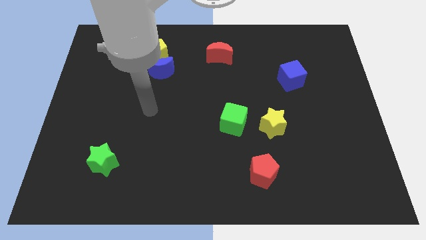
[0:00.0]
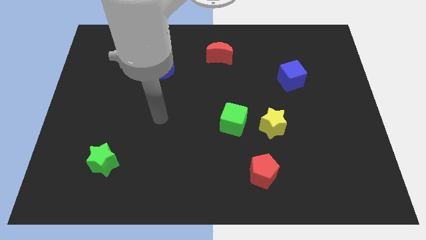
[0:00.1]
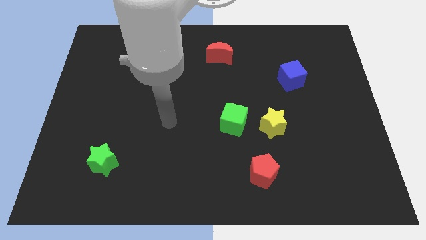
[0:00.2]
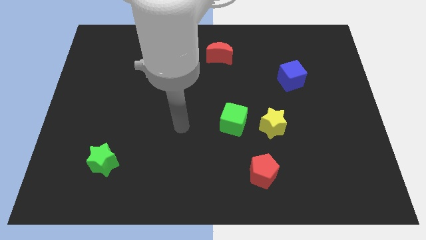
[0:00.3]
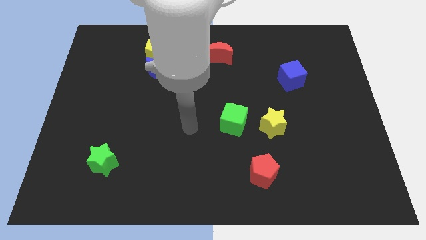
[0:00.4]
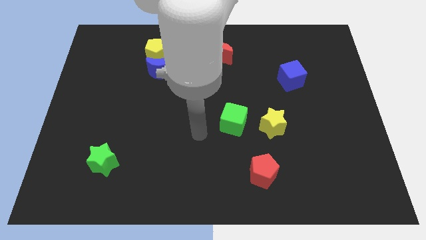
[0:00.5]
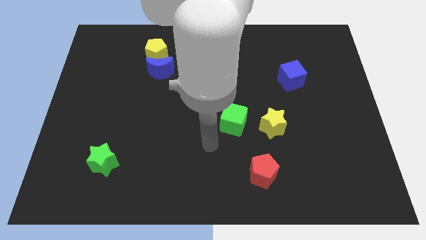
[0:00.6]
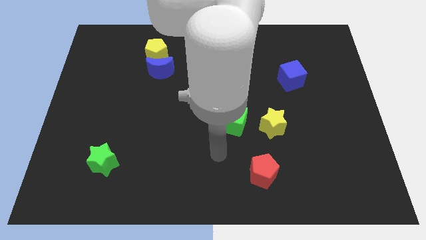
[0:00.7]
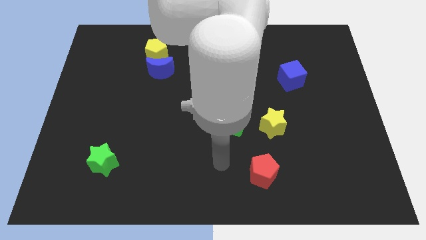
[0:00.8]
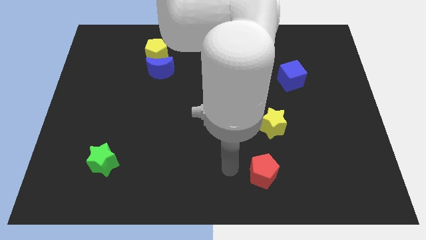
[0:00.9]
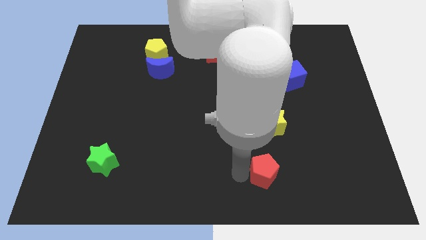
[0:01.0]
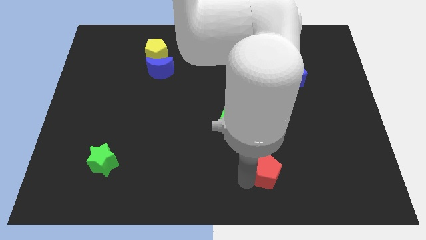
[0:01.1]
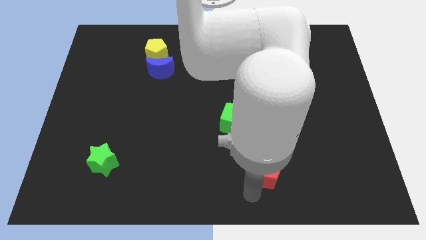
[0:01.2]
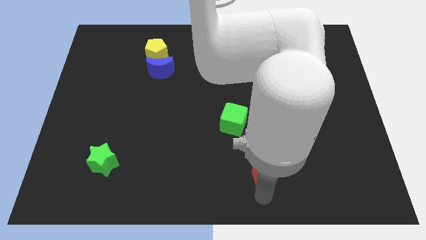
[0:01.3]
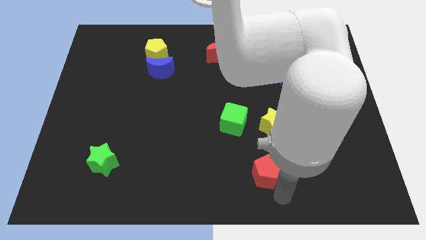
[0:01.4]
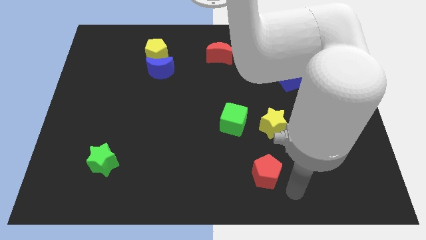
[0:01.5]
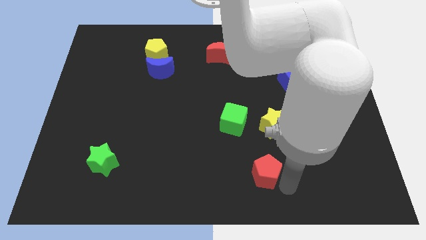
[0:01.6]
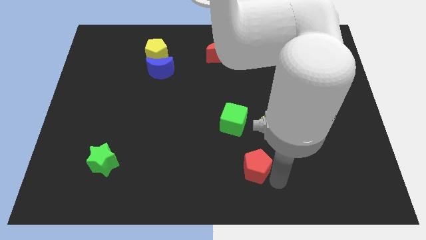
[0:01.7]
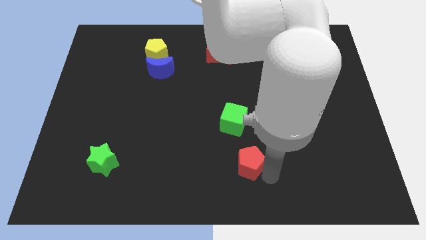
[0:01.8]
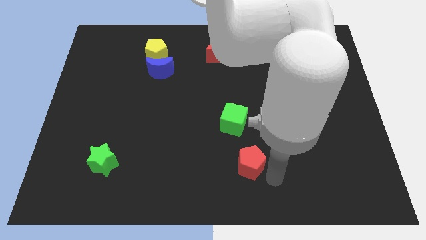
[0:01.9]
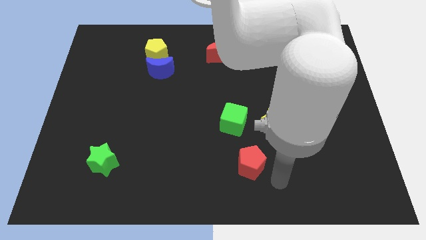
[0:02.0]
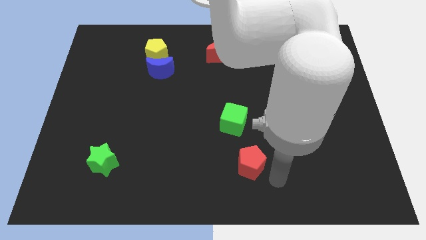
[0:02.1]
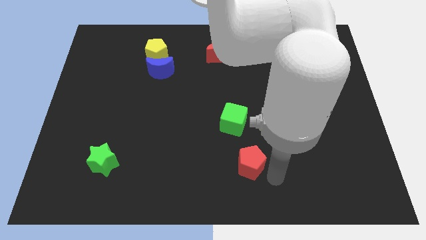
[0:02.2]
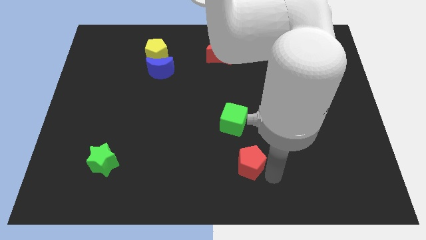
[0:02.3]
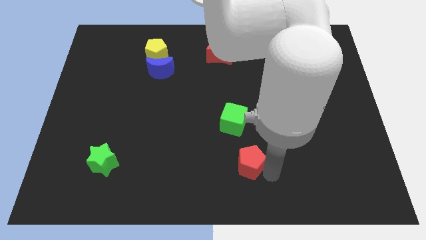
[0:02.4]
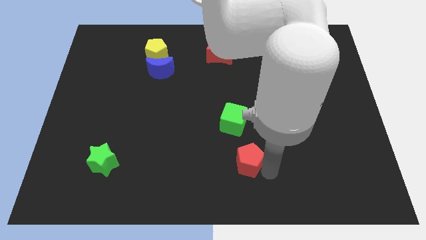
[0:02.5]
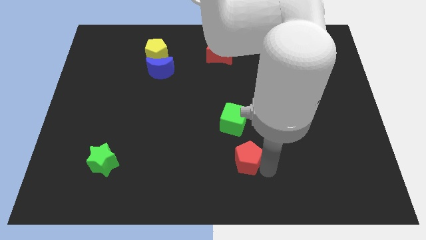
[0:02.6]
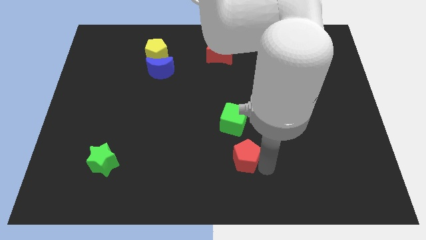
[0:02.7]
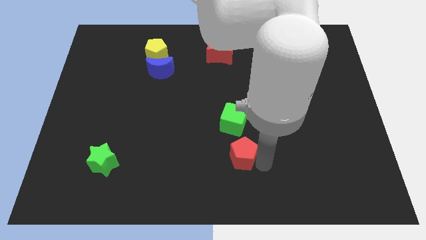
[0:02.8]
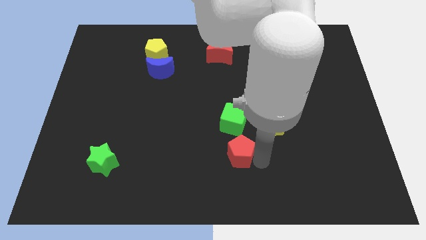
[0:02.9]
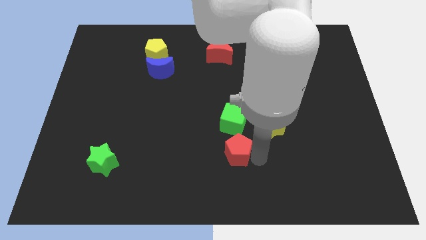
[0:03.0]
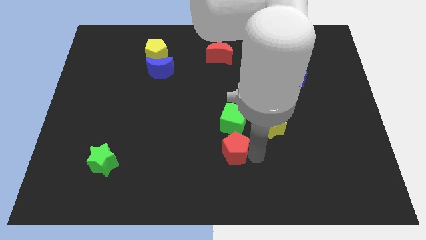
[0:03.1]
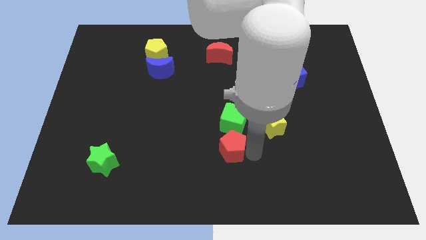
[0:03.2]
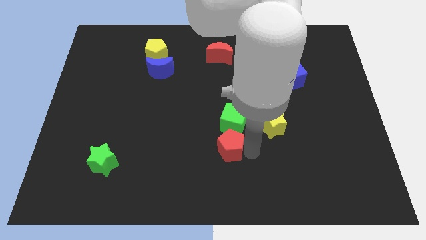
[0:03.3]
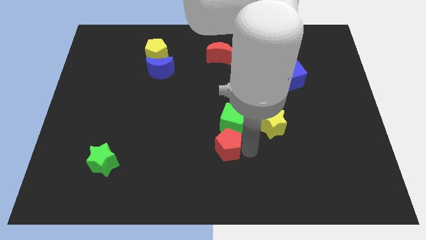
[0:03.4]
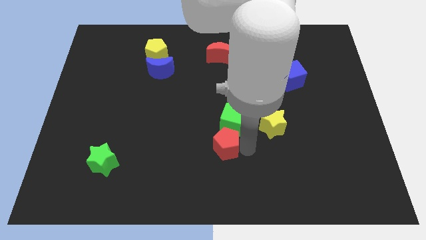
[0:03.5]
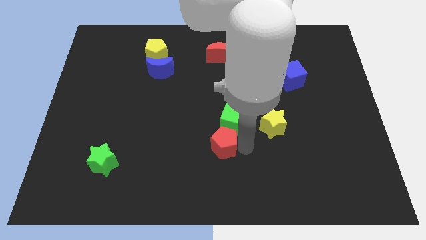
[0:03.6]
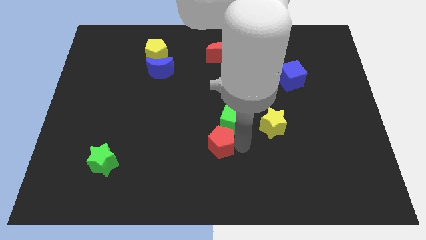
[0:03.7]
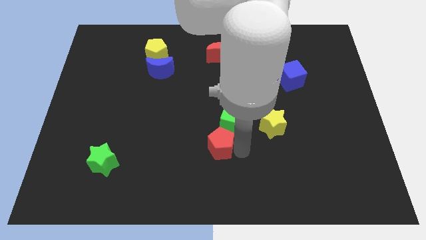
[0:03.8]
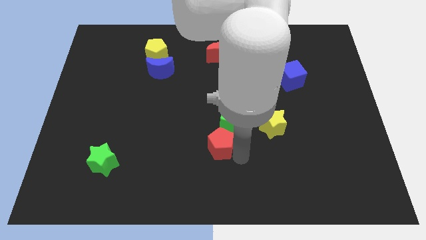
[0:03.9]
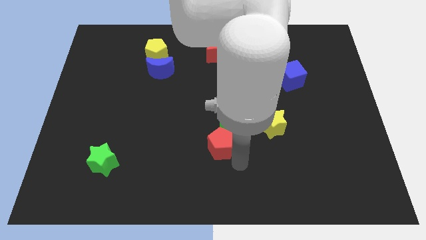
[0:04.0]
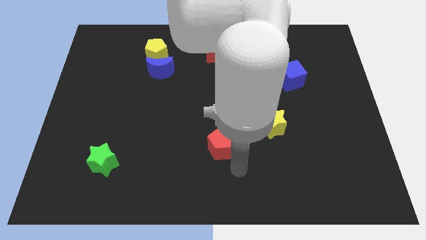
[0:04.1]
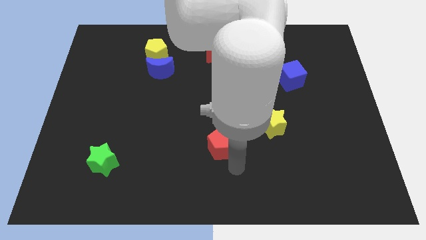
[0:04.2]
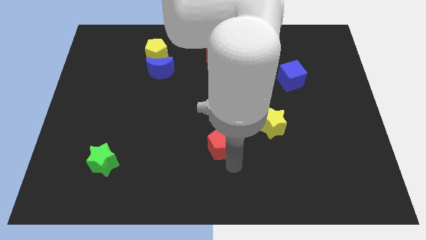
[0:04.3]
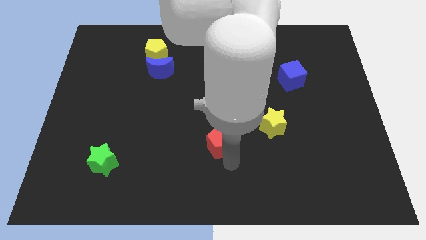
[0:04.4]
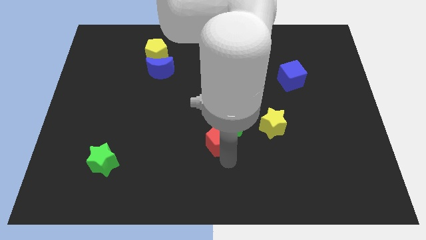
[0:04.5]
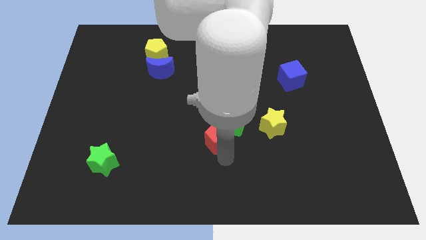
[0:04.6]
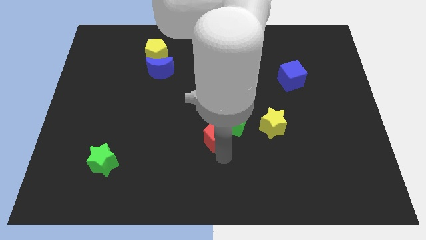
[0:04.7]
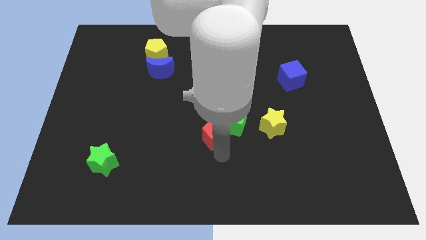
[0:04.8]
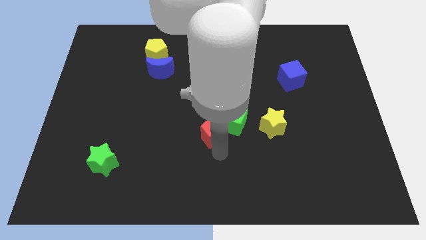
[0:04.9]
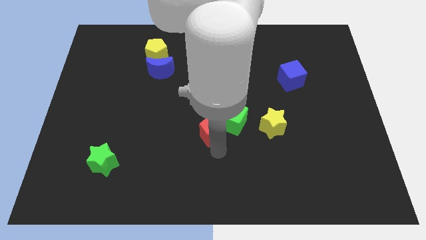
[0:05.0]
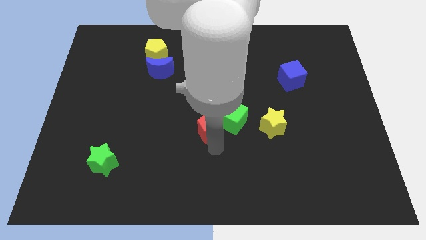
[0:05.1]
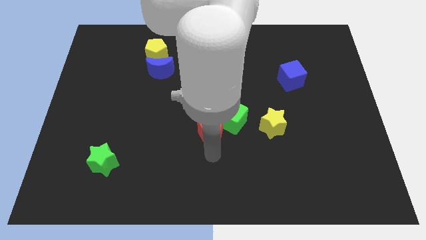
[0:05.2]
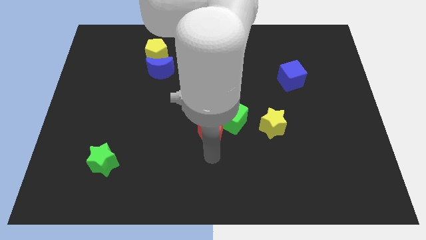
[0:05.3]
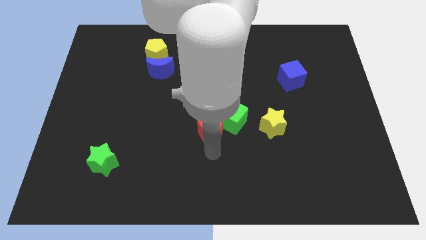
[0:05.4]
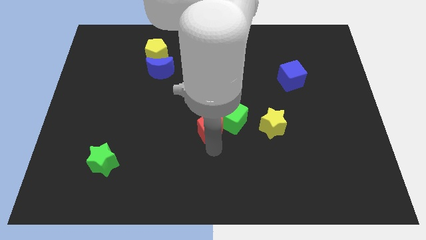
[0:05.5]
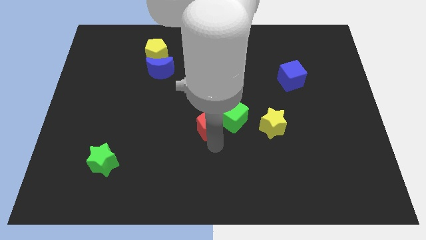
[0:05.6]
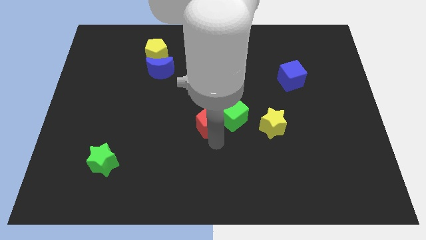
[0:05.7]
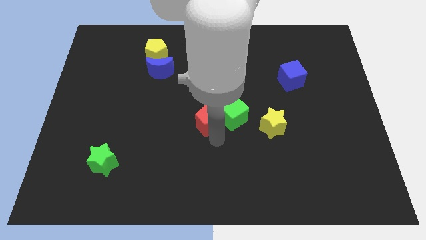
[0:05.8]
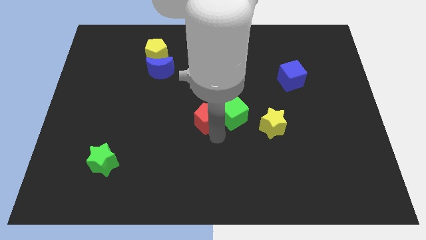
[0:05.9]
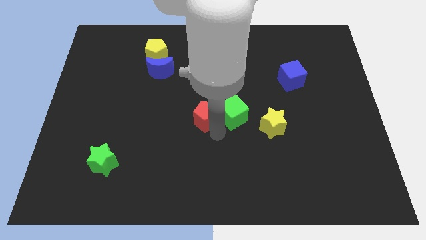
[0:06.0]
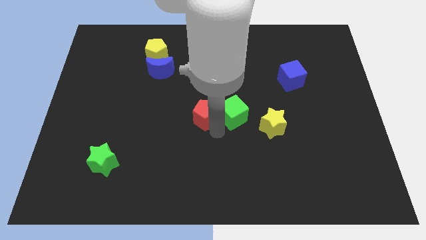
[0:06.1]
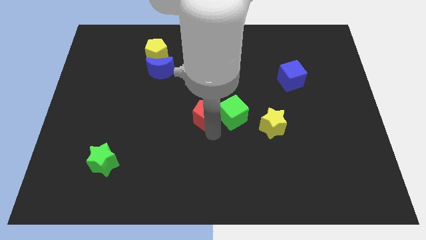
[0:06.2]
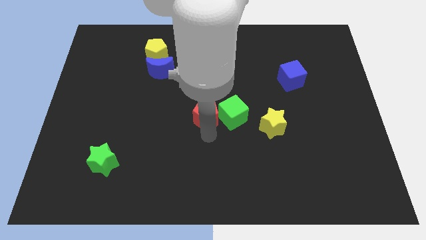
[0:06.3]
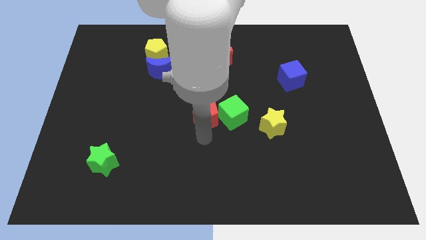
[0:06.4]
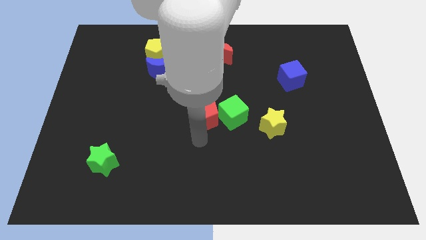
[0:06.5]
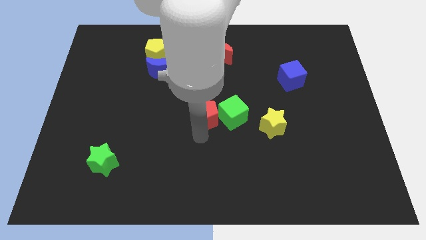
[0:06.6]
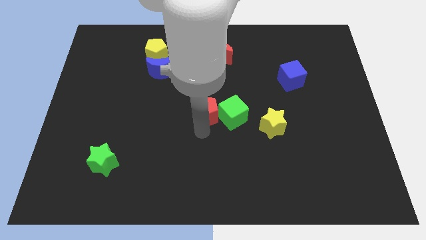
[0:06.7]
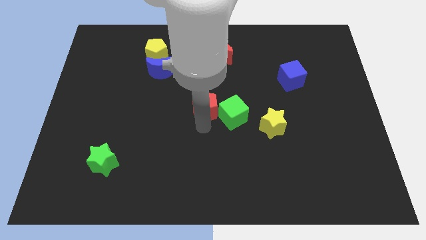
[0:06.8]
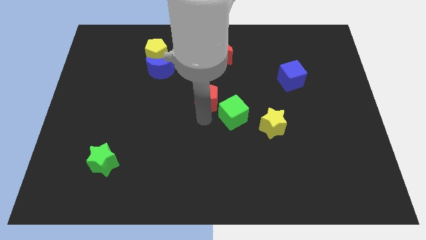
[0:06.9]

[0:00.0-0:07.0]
put the red pentagon to the bottom of the red moon
